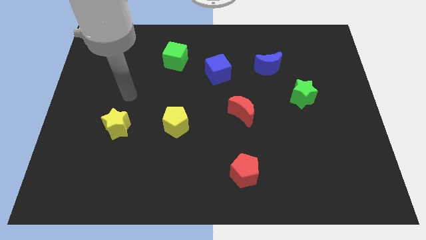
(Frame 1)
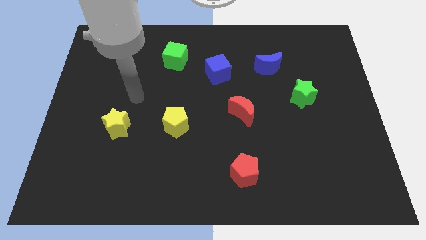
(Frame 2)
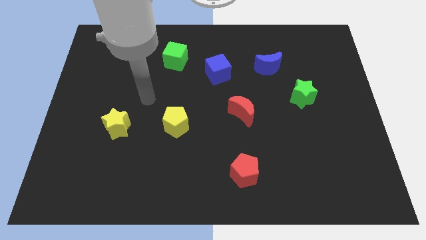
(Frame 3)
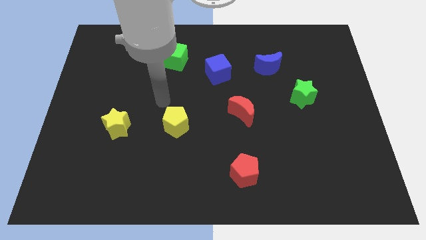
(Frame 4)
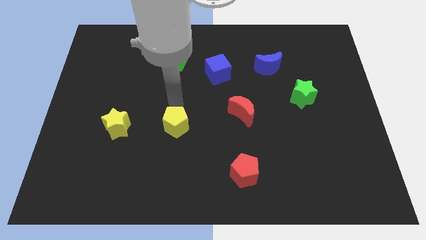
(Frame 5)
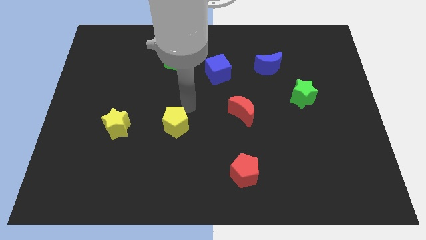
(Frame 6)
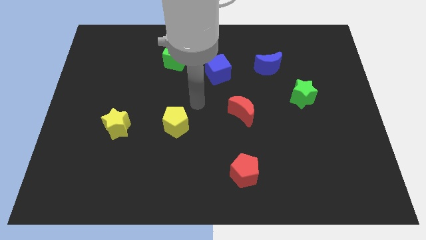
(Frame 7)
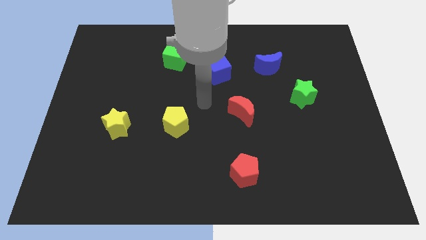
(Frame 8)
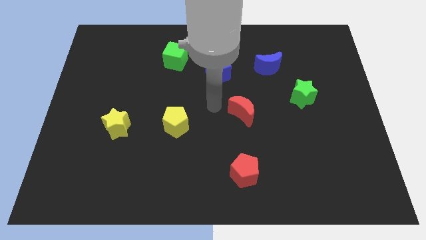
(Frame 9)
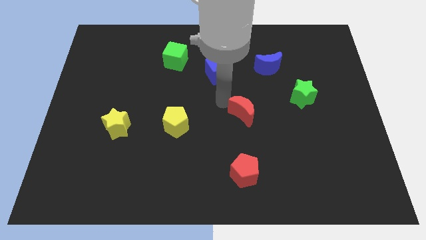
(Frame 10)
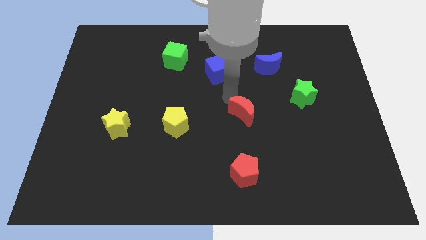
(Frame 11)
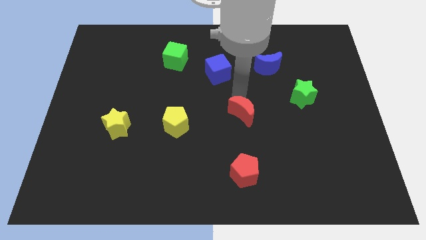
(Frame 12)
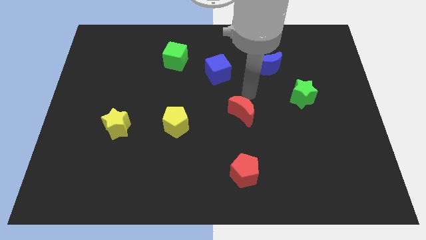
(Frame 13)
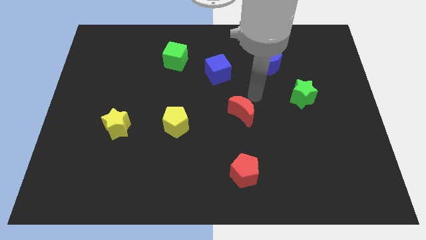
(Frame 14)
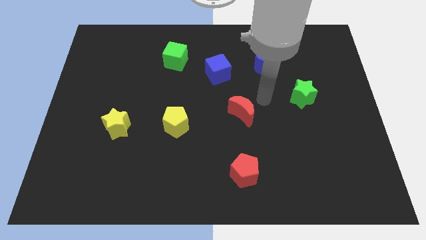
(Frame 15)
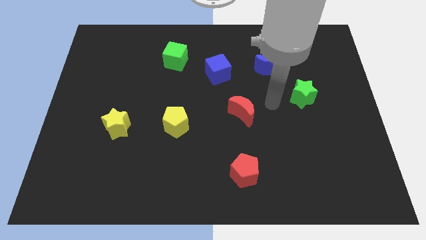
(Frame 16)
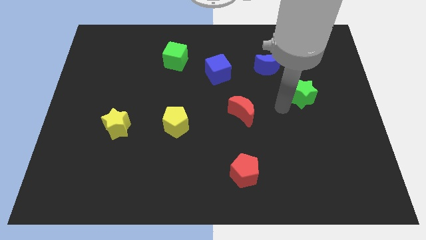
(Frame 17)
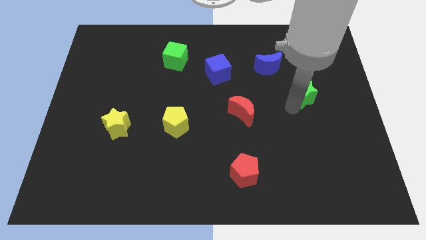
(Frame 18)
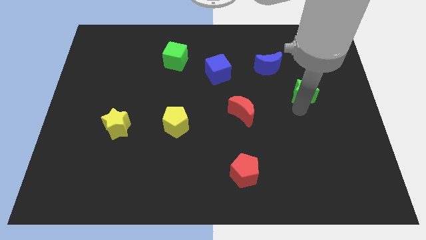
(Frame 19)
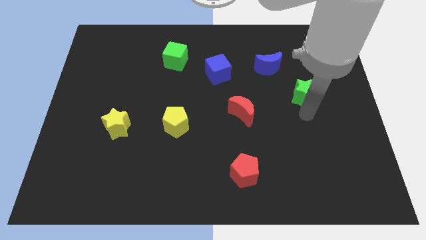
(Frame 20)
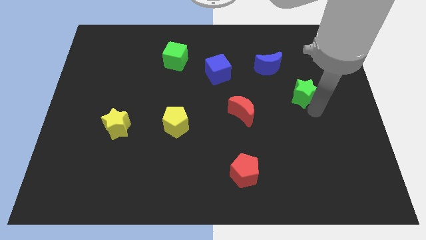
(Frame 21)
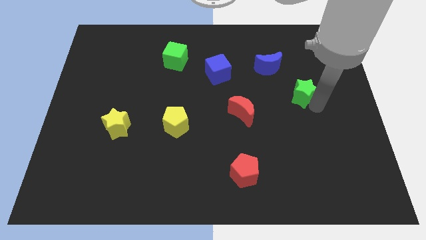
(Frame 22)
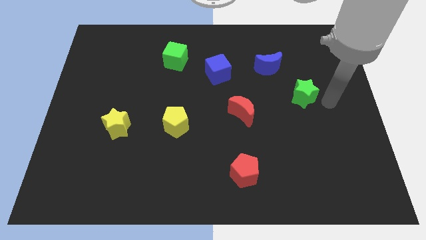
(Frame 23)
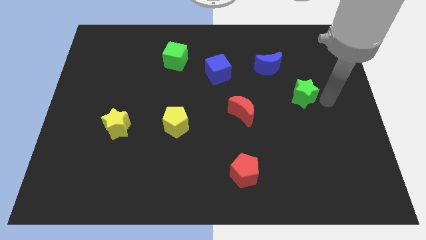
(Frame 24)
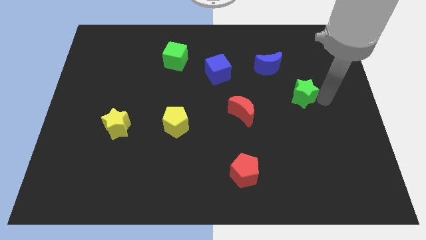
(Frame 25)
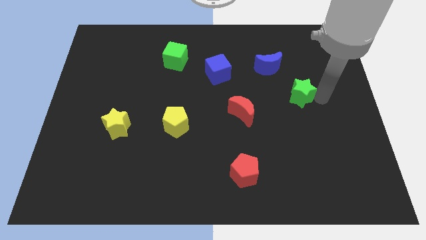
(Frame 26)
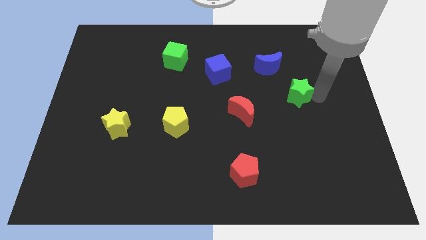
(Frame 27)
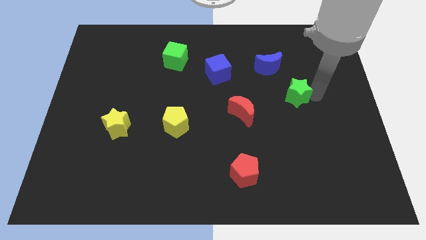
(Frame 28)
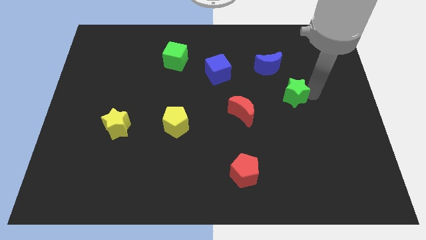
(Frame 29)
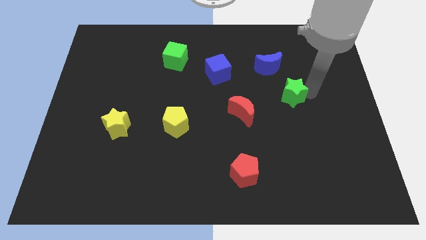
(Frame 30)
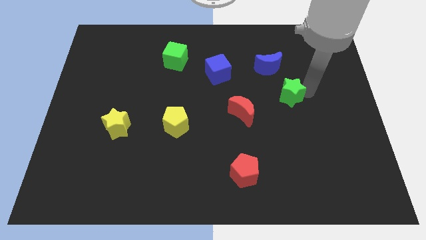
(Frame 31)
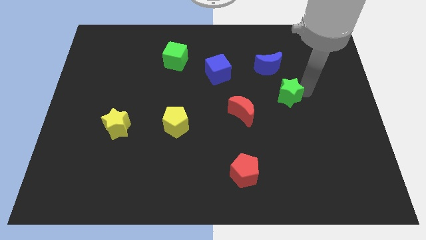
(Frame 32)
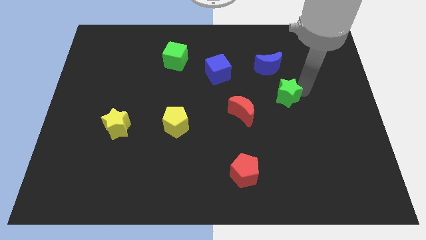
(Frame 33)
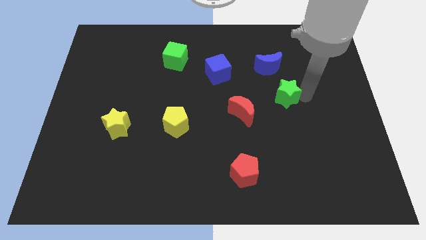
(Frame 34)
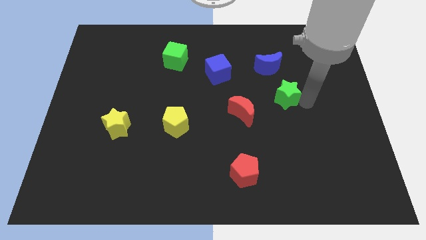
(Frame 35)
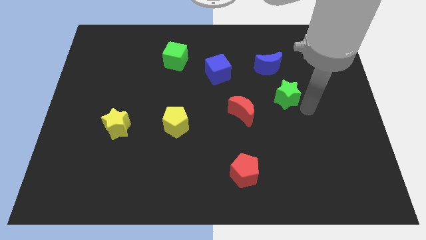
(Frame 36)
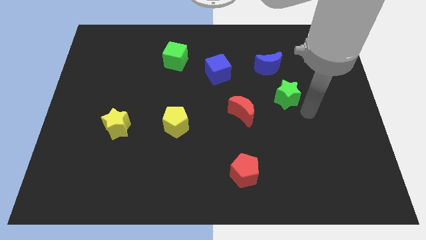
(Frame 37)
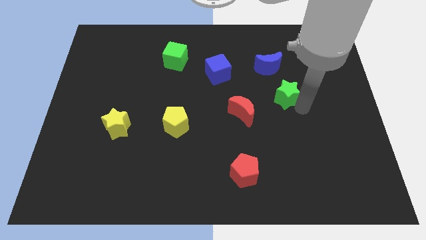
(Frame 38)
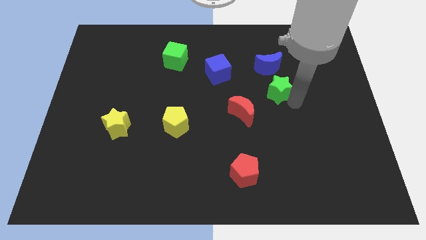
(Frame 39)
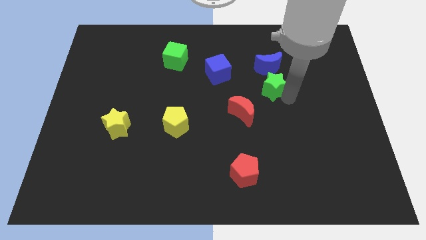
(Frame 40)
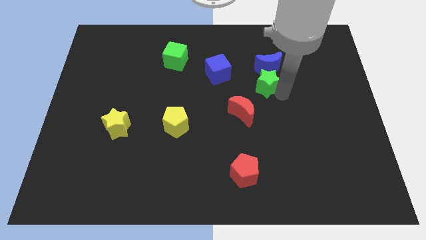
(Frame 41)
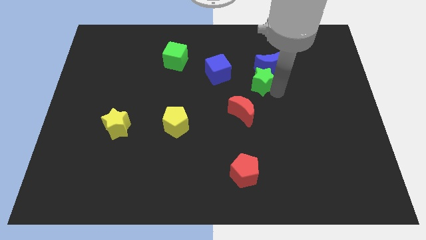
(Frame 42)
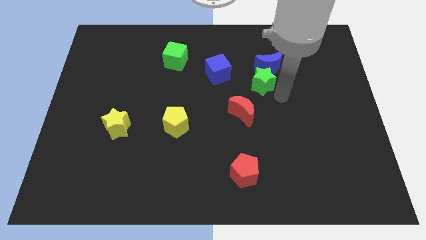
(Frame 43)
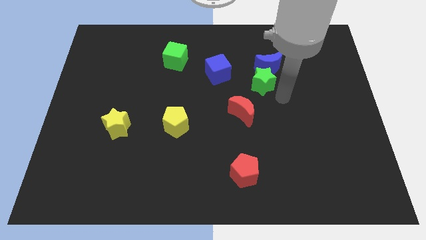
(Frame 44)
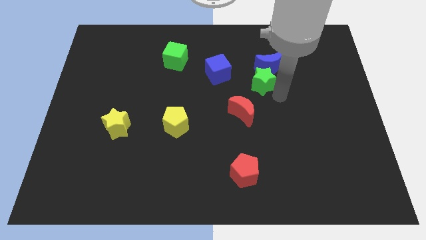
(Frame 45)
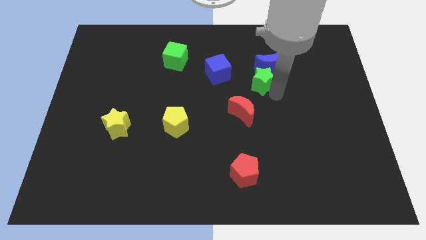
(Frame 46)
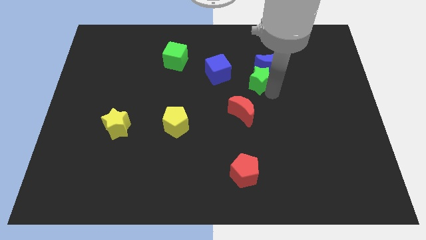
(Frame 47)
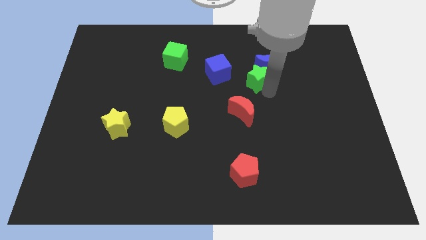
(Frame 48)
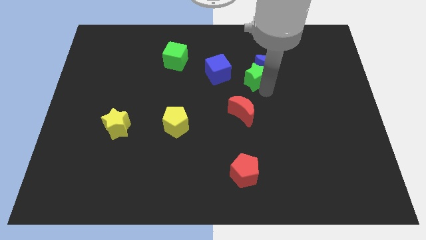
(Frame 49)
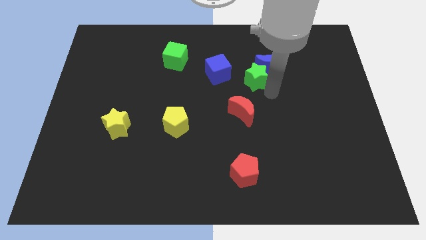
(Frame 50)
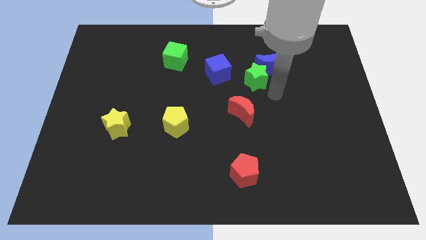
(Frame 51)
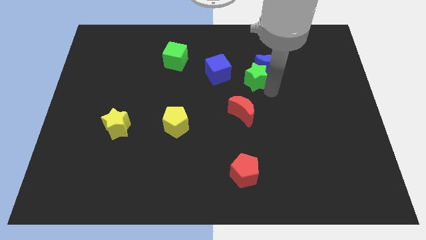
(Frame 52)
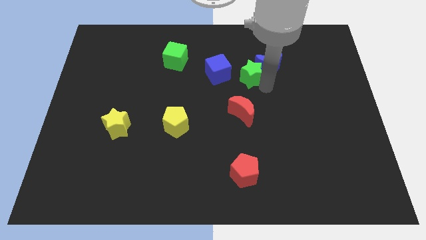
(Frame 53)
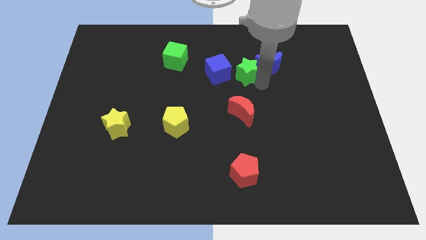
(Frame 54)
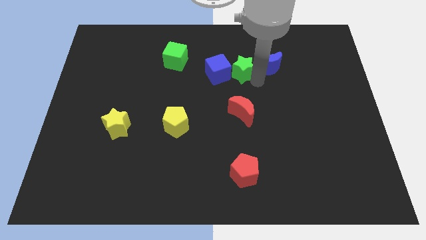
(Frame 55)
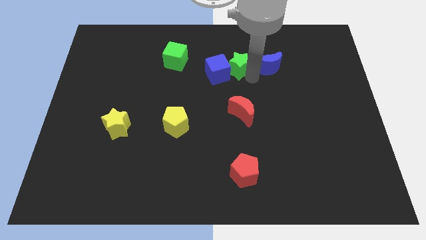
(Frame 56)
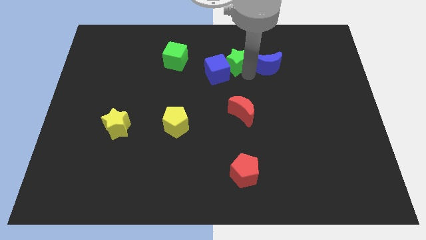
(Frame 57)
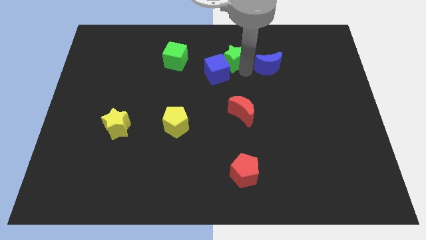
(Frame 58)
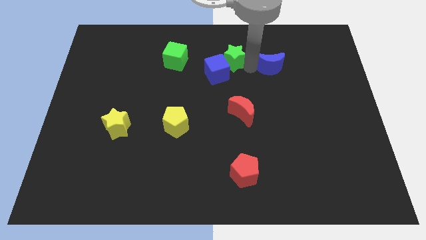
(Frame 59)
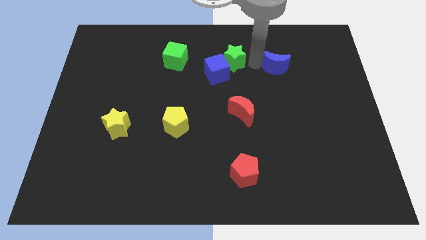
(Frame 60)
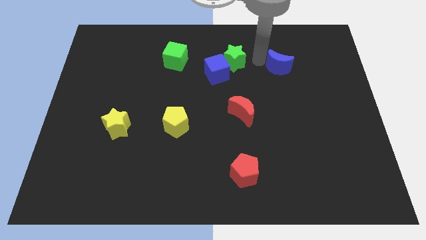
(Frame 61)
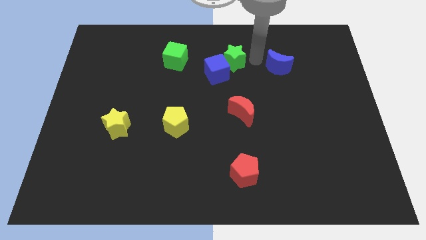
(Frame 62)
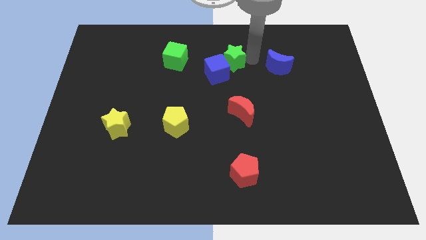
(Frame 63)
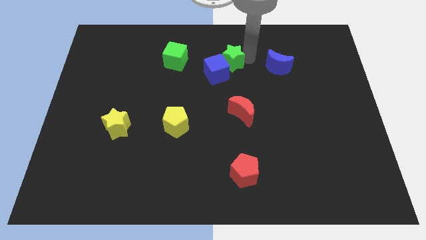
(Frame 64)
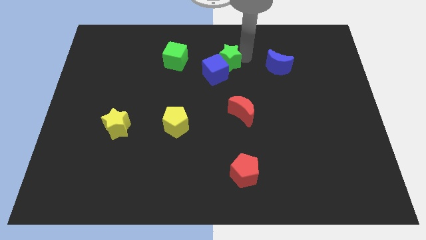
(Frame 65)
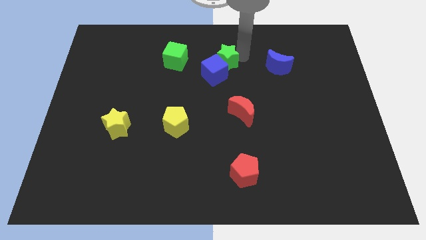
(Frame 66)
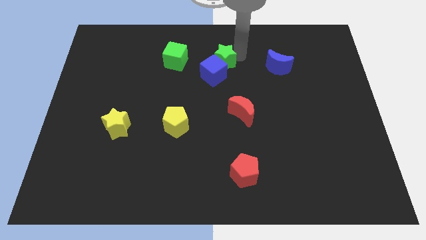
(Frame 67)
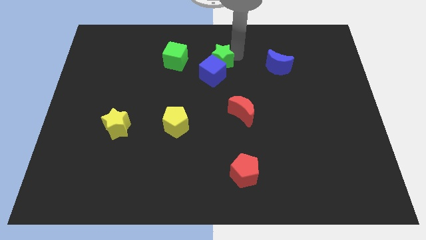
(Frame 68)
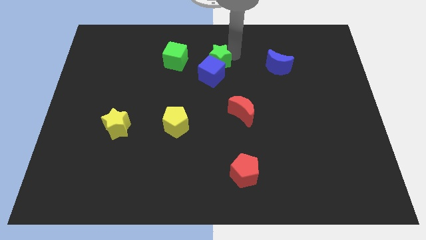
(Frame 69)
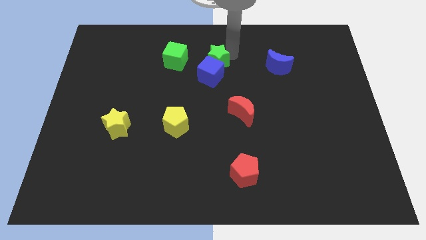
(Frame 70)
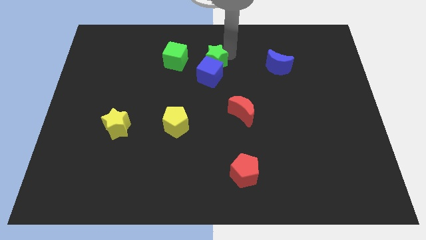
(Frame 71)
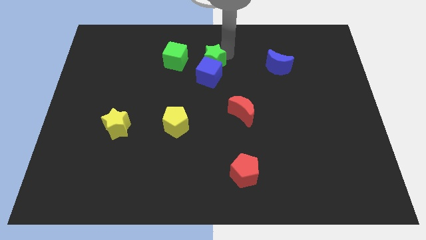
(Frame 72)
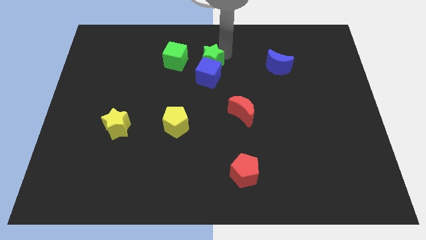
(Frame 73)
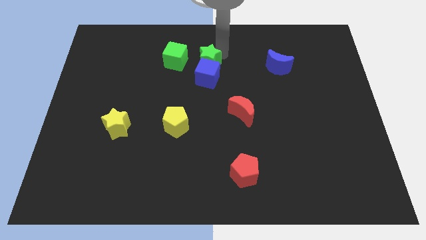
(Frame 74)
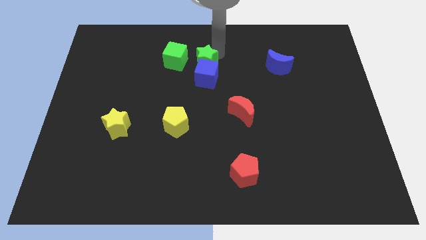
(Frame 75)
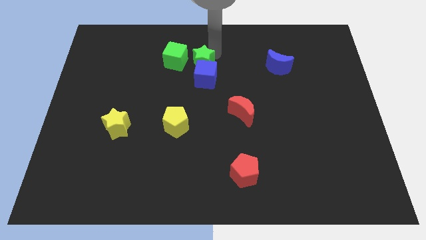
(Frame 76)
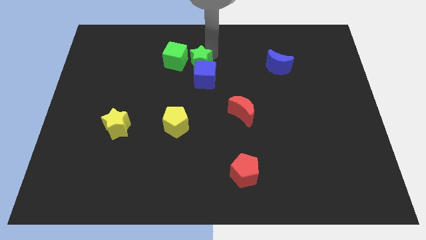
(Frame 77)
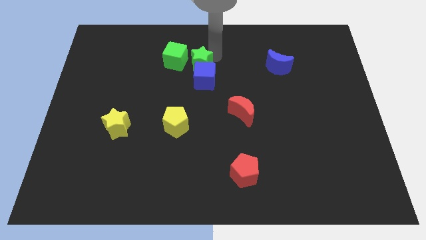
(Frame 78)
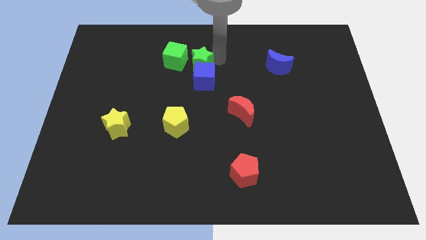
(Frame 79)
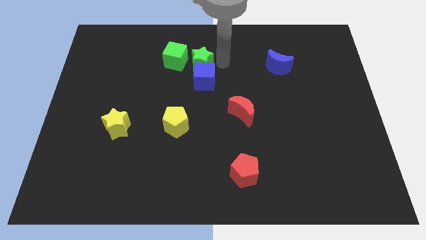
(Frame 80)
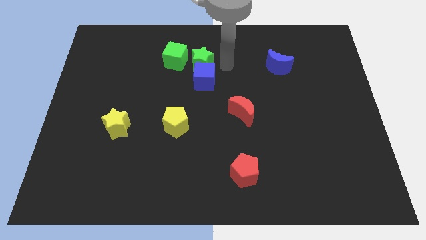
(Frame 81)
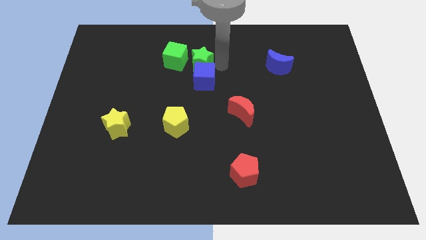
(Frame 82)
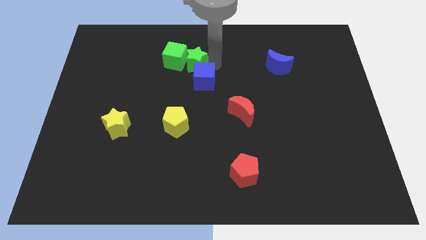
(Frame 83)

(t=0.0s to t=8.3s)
push the green star towards the green cube
